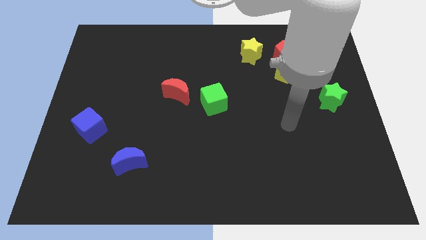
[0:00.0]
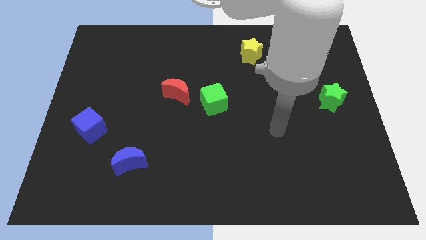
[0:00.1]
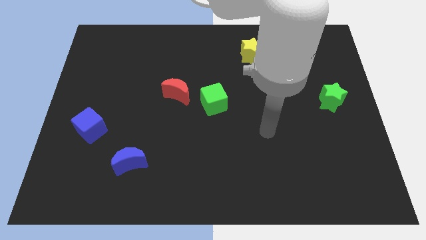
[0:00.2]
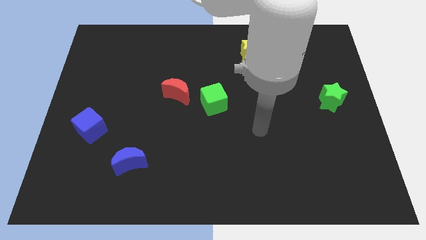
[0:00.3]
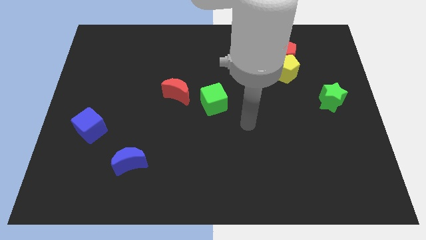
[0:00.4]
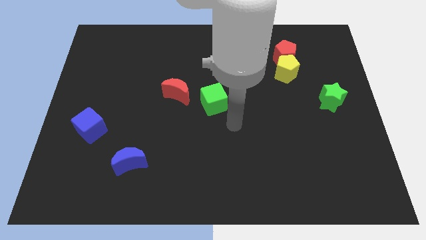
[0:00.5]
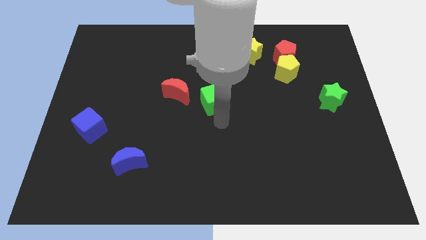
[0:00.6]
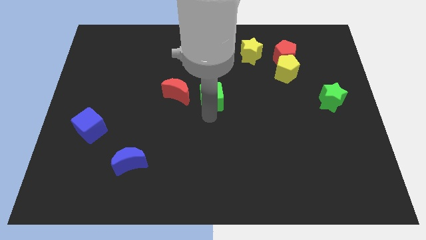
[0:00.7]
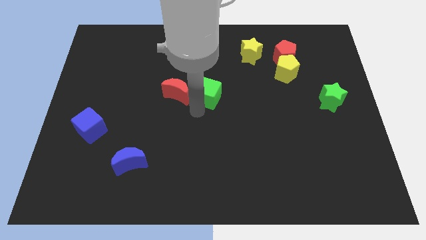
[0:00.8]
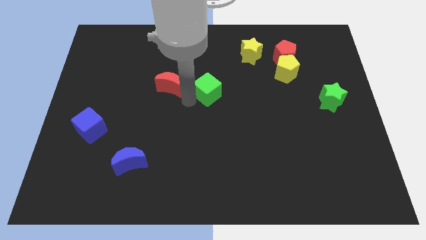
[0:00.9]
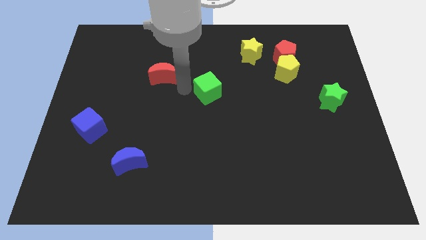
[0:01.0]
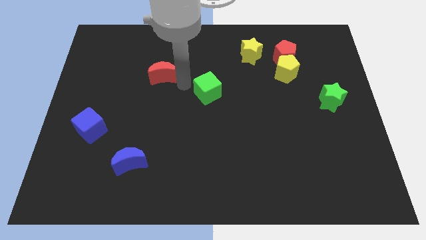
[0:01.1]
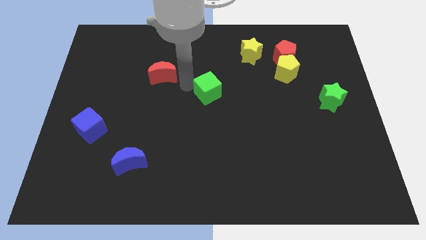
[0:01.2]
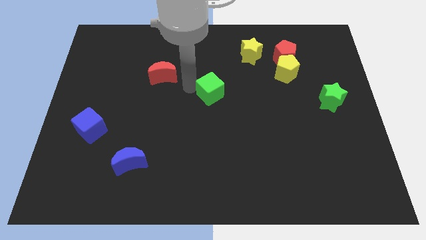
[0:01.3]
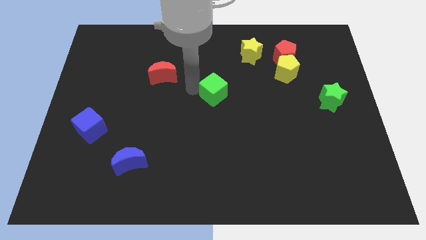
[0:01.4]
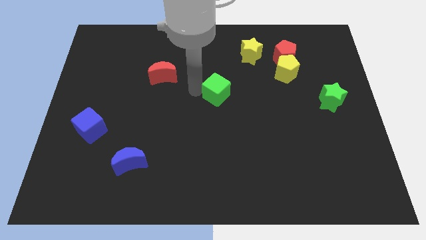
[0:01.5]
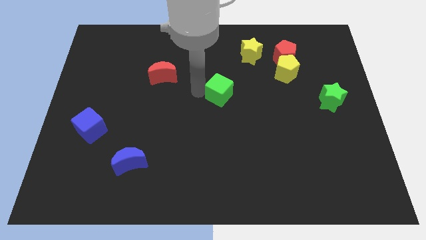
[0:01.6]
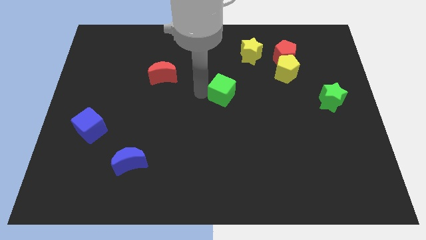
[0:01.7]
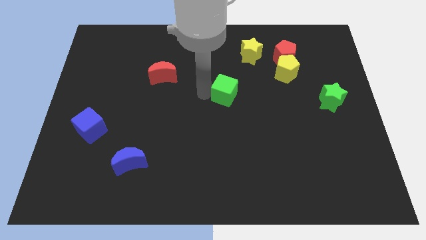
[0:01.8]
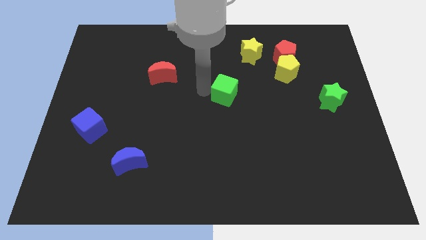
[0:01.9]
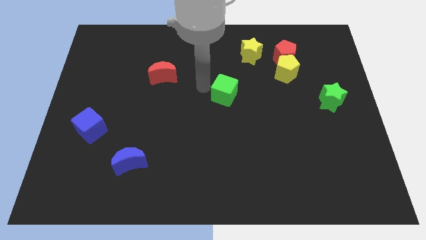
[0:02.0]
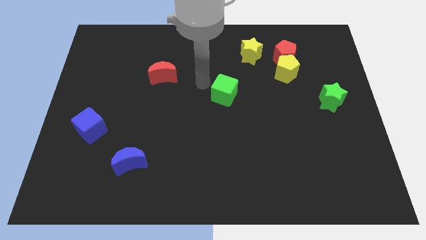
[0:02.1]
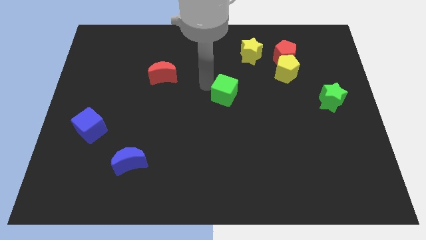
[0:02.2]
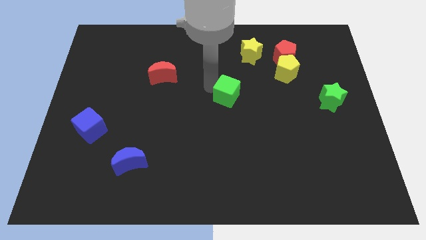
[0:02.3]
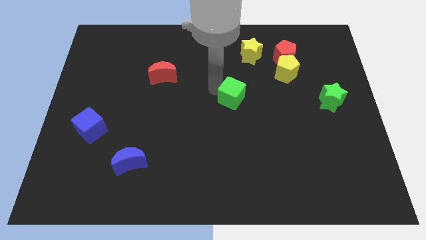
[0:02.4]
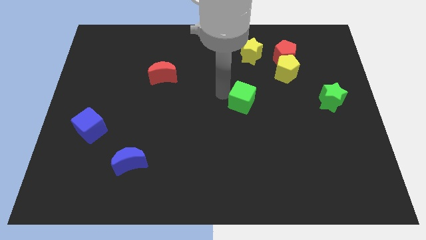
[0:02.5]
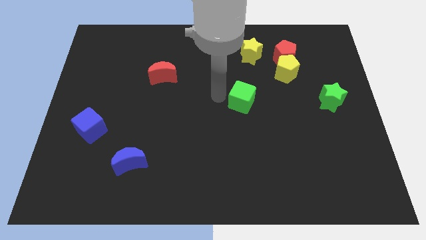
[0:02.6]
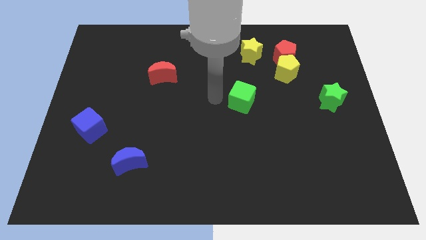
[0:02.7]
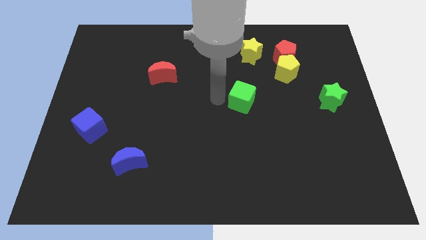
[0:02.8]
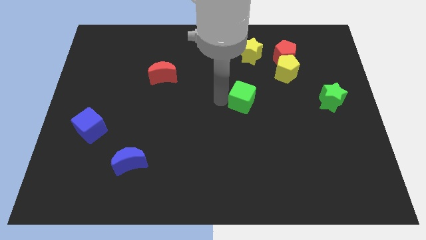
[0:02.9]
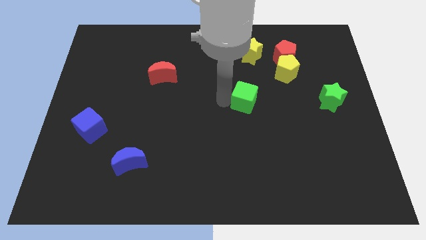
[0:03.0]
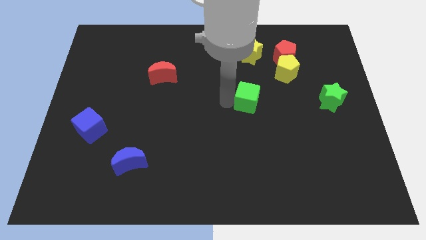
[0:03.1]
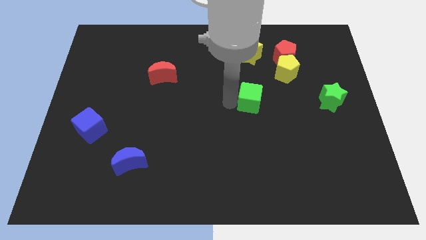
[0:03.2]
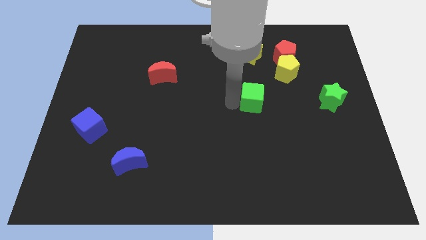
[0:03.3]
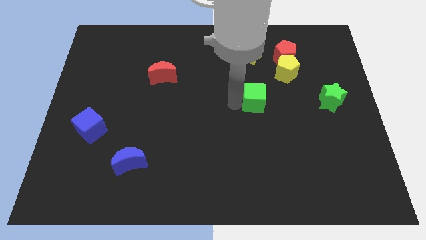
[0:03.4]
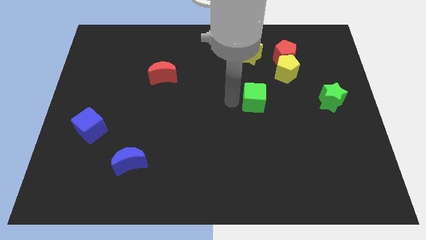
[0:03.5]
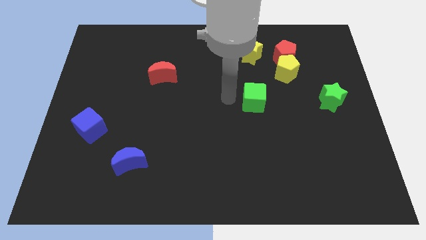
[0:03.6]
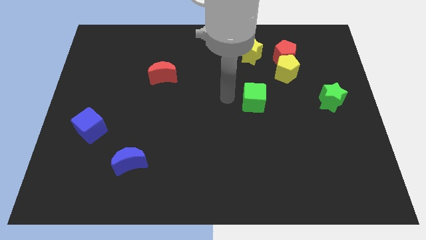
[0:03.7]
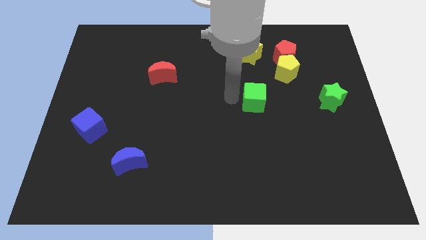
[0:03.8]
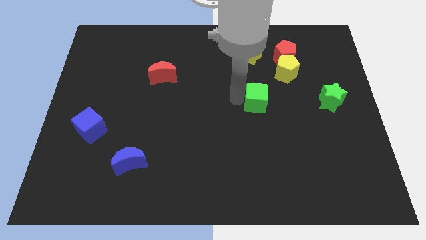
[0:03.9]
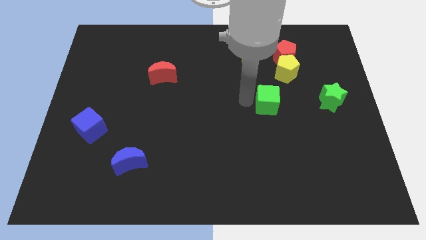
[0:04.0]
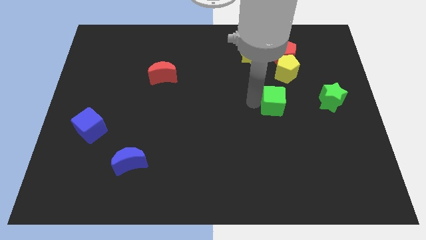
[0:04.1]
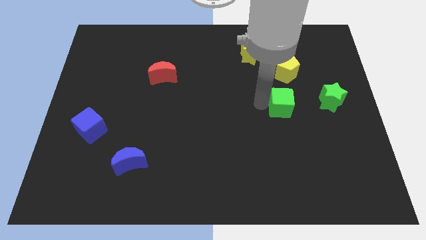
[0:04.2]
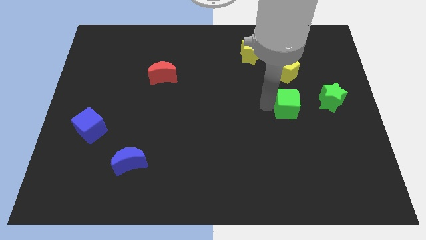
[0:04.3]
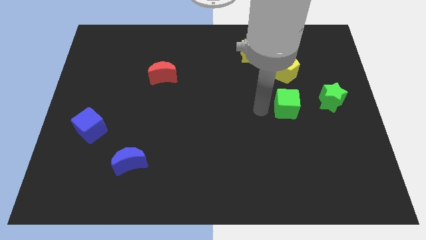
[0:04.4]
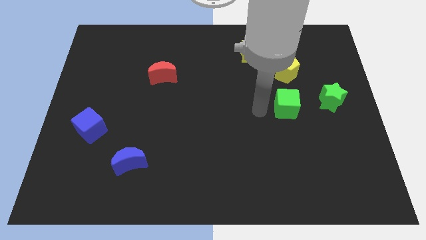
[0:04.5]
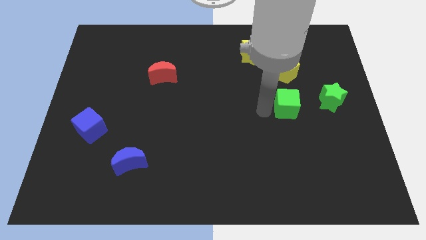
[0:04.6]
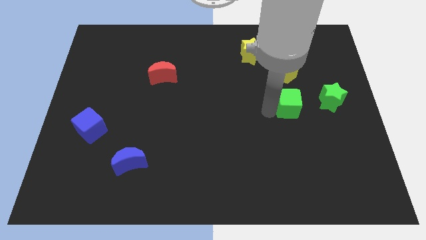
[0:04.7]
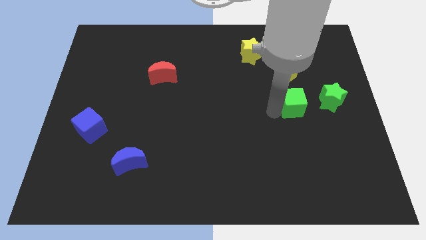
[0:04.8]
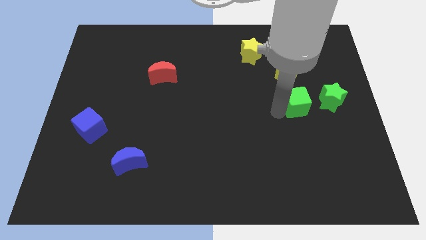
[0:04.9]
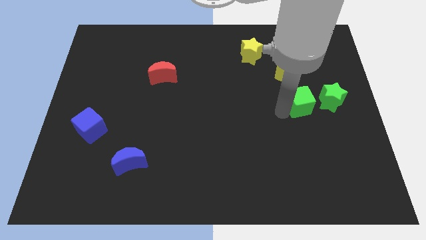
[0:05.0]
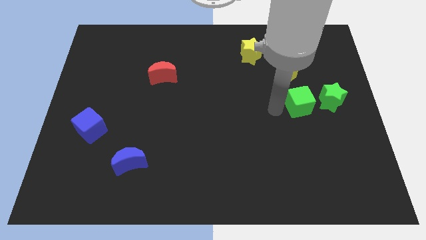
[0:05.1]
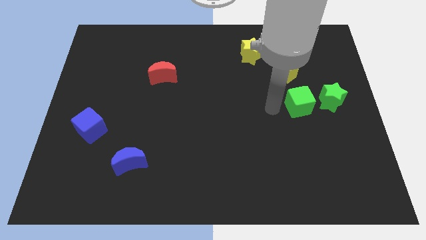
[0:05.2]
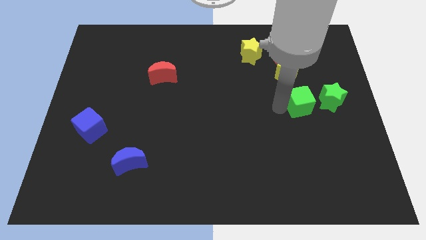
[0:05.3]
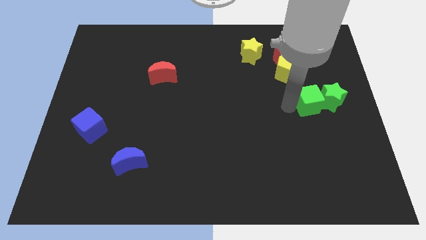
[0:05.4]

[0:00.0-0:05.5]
move the green cube next to the green star

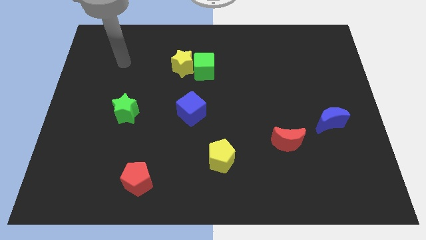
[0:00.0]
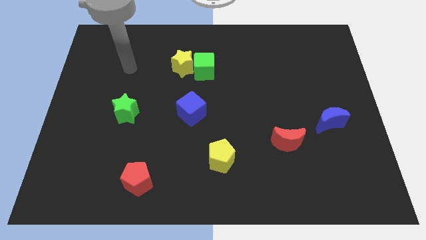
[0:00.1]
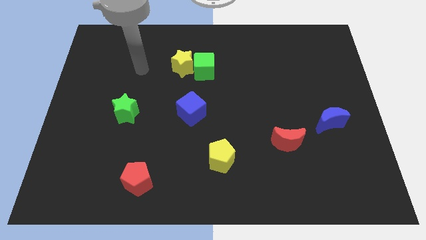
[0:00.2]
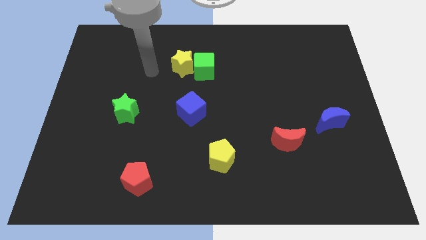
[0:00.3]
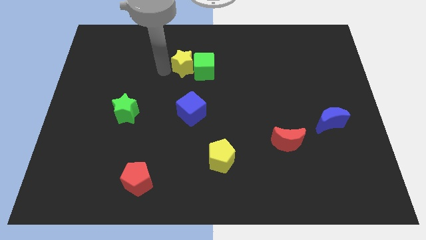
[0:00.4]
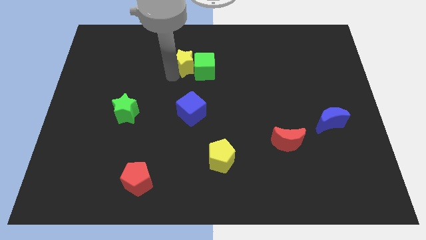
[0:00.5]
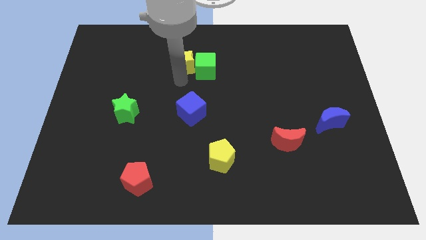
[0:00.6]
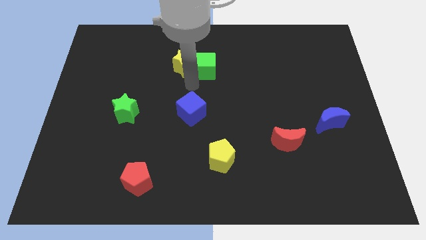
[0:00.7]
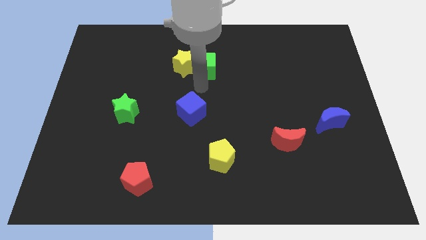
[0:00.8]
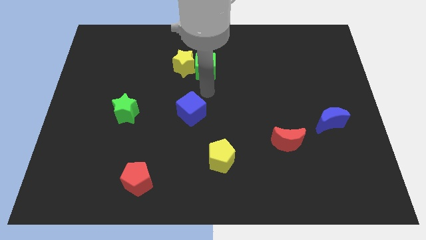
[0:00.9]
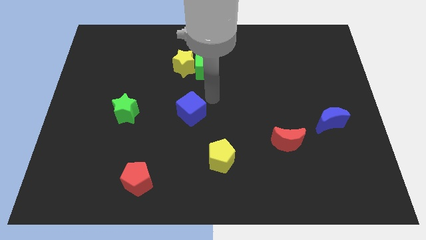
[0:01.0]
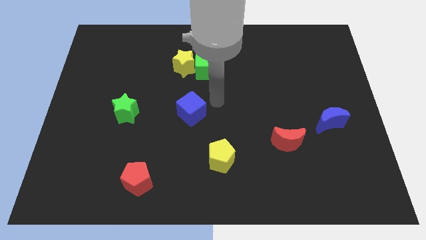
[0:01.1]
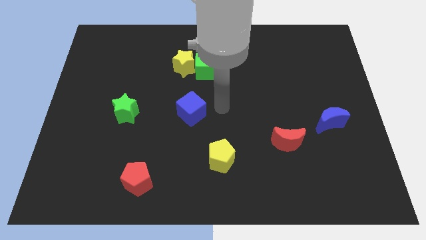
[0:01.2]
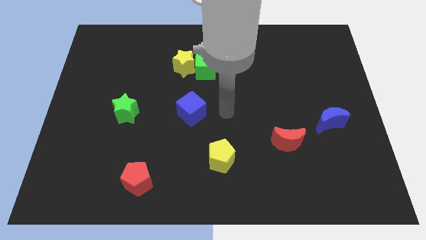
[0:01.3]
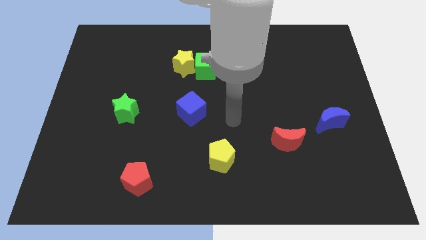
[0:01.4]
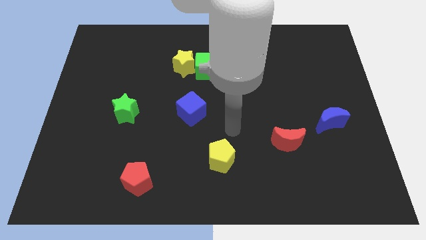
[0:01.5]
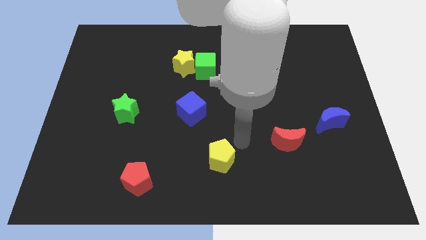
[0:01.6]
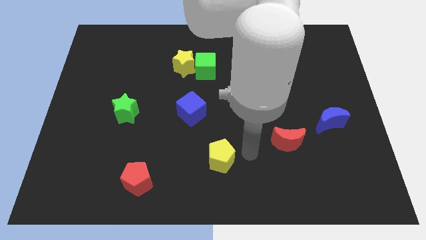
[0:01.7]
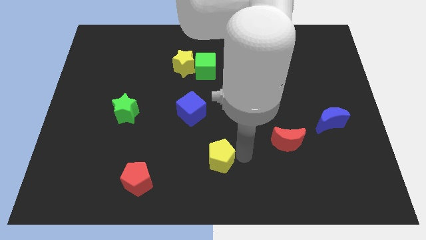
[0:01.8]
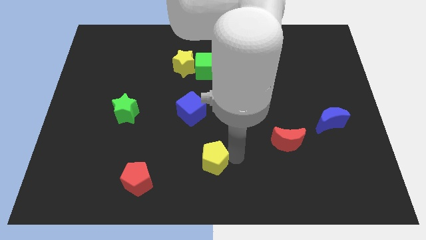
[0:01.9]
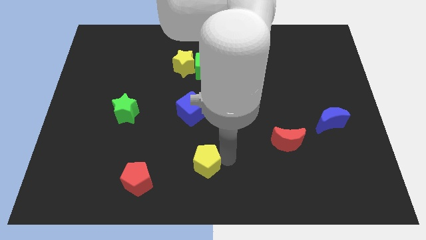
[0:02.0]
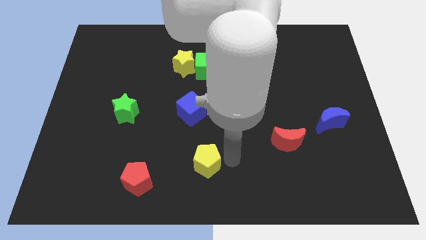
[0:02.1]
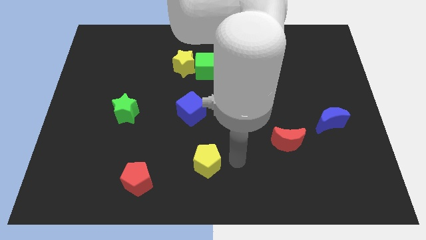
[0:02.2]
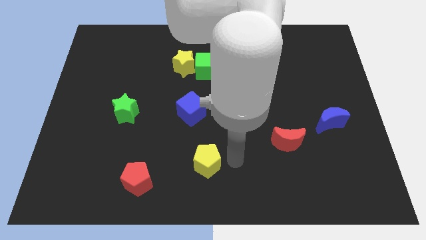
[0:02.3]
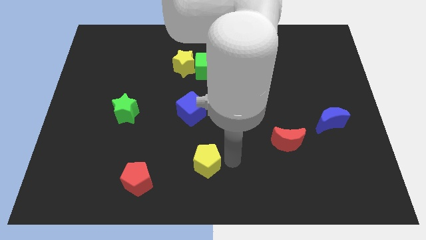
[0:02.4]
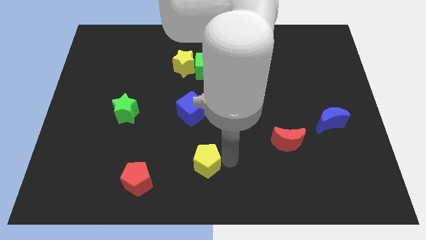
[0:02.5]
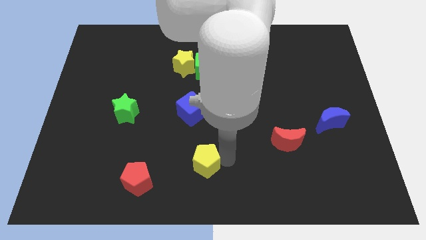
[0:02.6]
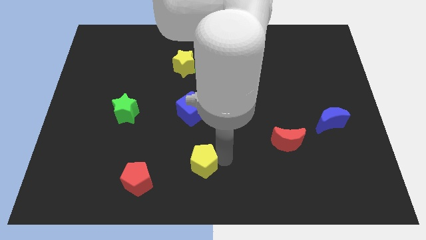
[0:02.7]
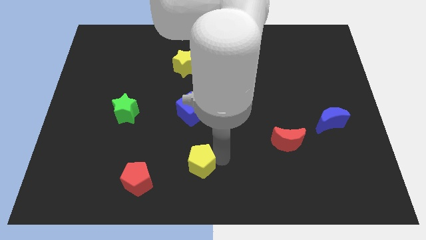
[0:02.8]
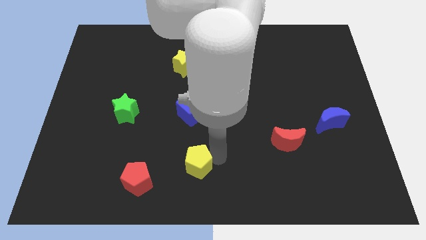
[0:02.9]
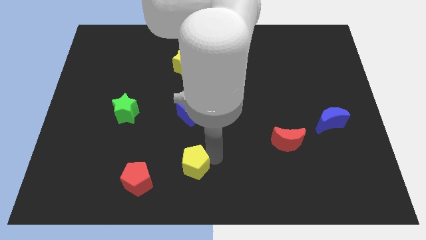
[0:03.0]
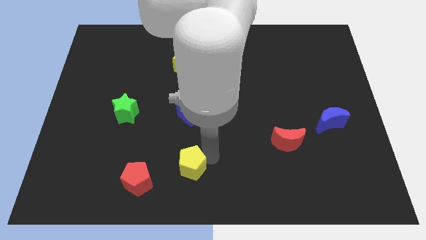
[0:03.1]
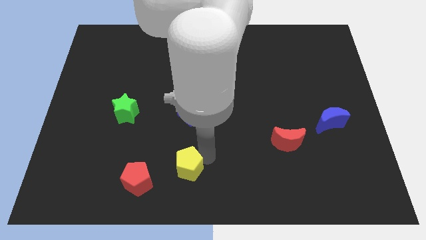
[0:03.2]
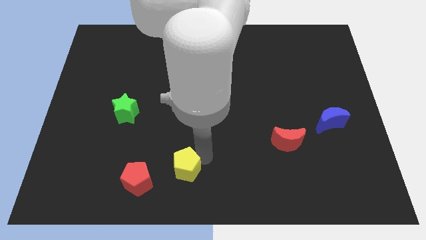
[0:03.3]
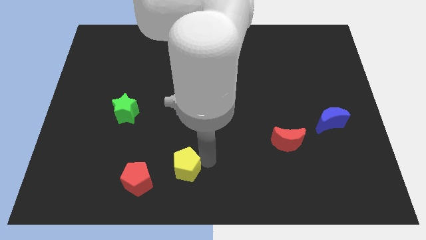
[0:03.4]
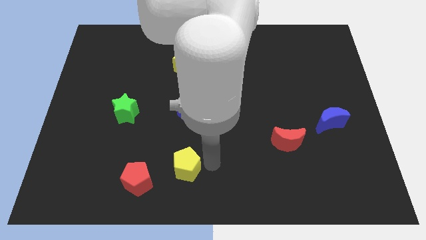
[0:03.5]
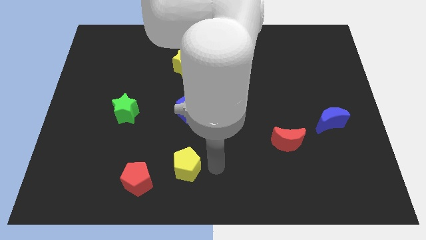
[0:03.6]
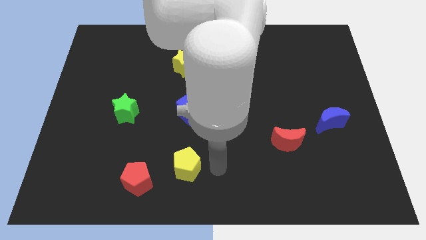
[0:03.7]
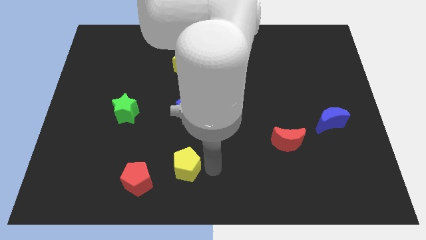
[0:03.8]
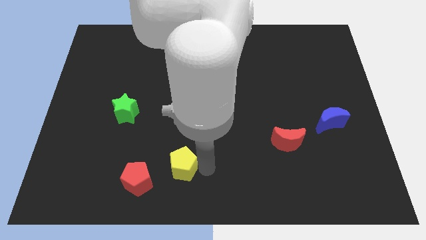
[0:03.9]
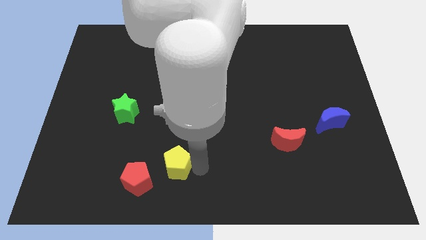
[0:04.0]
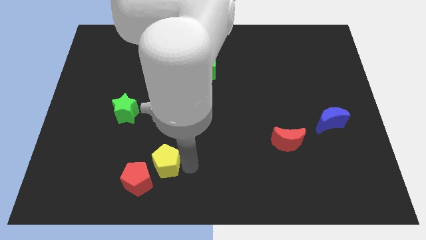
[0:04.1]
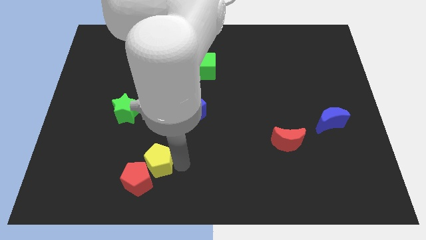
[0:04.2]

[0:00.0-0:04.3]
slide the yellow pentagon close to the red pentagon
